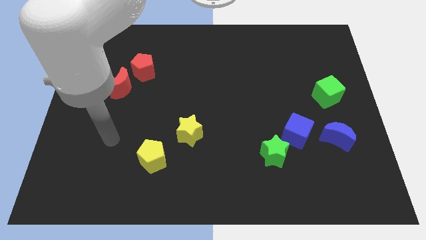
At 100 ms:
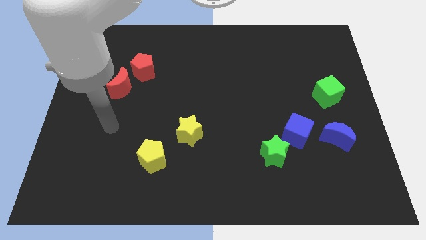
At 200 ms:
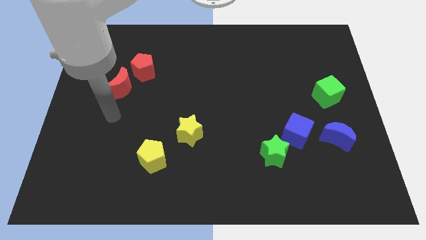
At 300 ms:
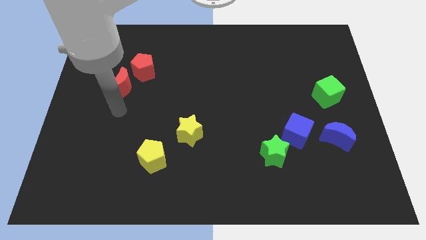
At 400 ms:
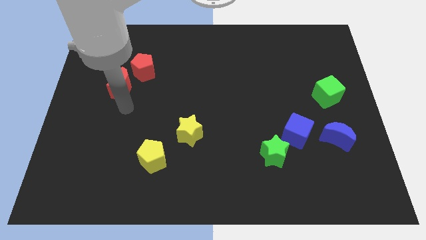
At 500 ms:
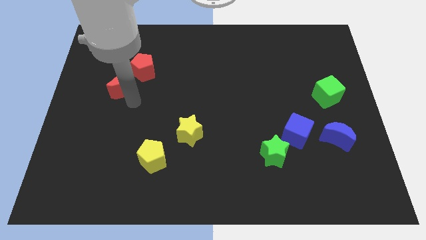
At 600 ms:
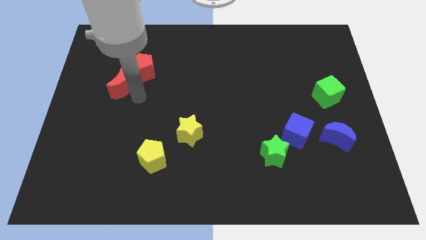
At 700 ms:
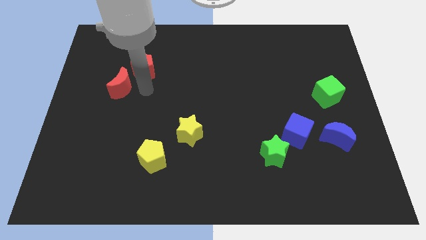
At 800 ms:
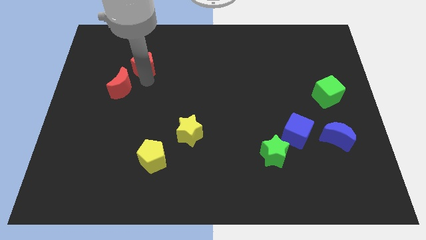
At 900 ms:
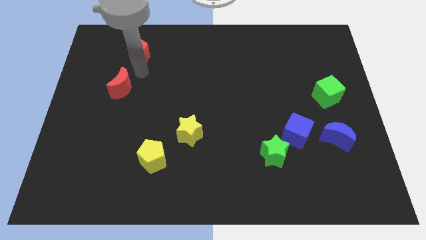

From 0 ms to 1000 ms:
move the red moon away from the red pentagon

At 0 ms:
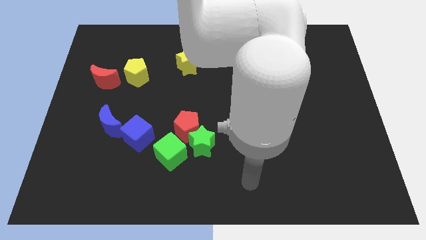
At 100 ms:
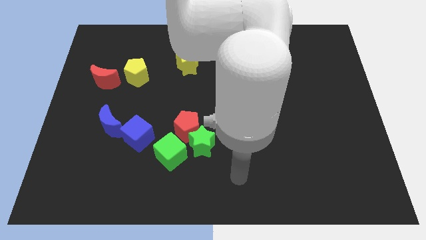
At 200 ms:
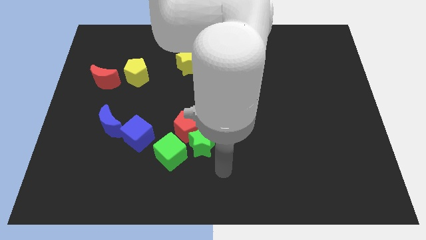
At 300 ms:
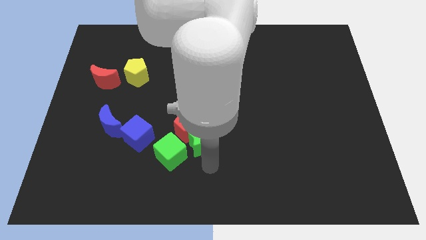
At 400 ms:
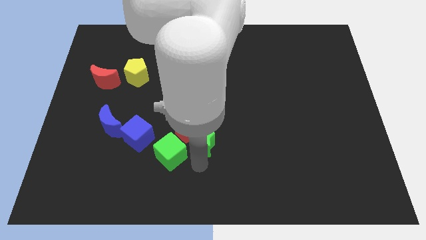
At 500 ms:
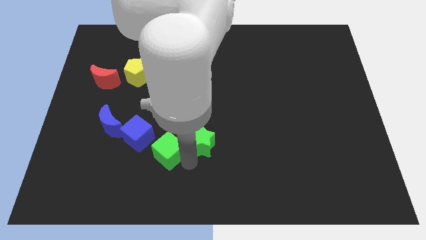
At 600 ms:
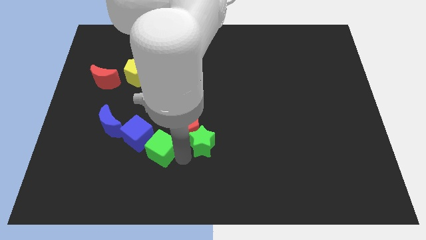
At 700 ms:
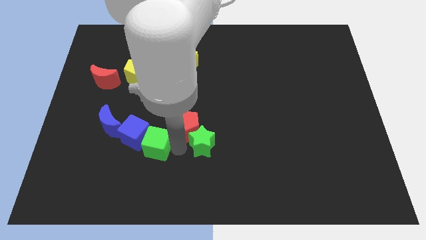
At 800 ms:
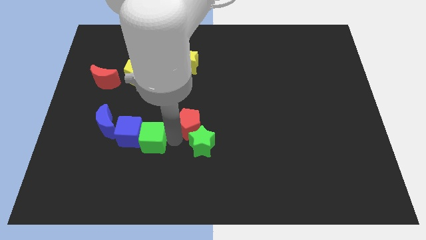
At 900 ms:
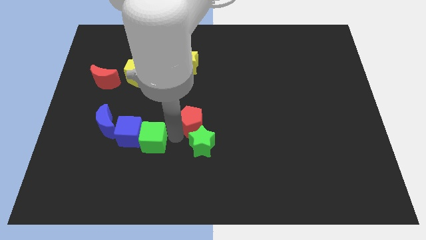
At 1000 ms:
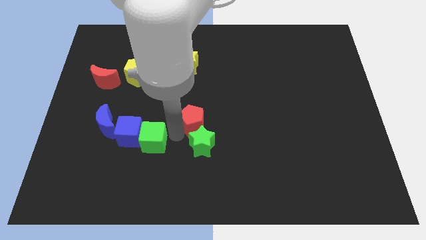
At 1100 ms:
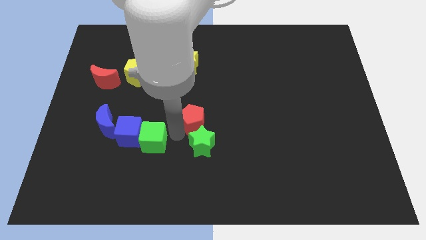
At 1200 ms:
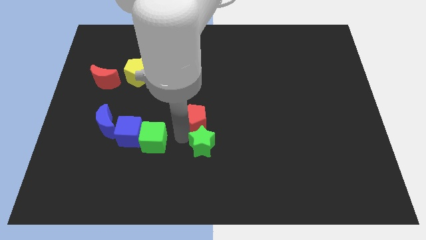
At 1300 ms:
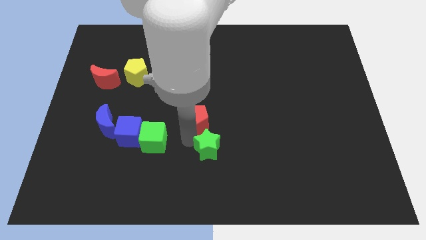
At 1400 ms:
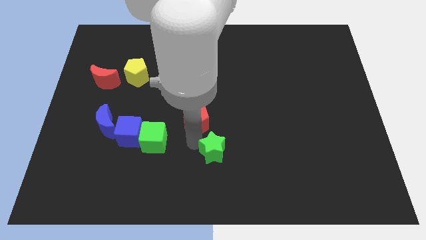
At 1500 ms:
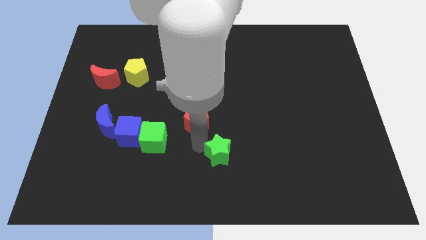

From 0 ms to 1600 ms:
separate the green star from the red pentagon and green cube

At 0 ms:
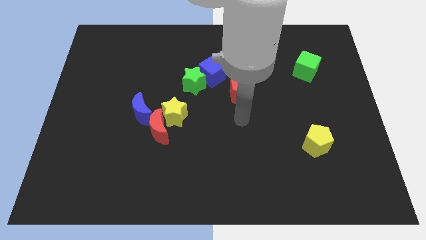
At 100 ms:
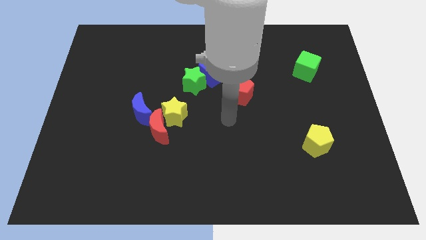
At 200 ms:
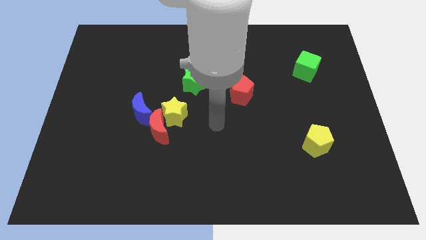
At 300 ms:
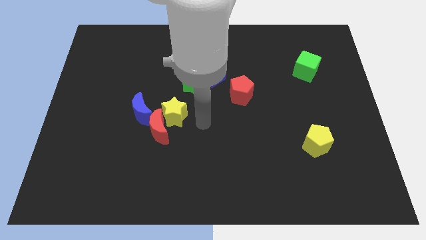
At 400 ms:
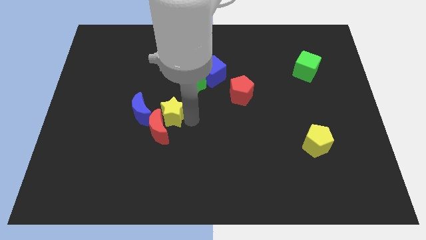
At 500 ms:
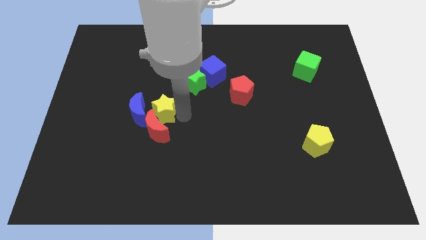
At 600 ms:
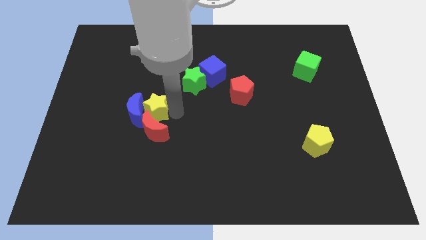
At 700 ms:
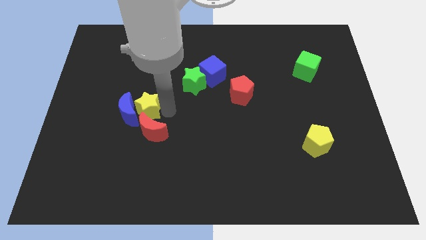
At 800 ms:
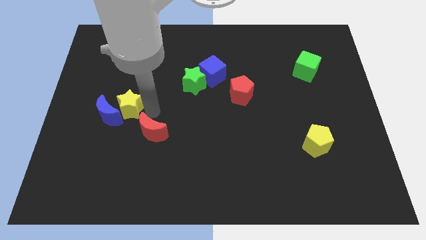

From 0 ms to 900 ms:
move the red moon away from the yellow star and blue moon

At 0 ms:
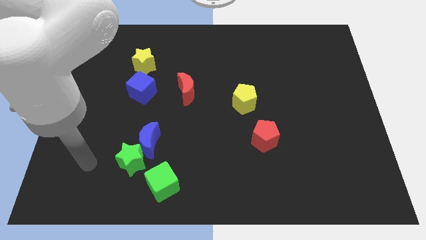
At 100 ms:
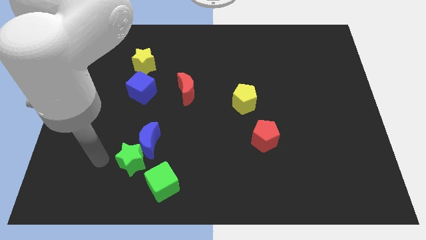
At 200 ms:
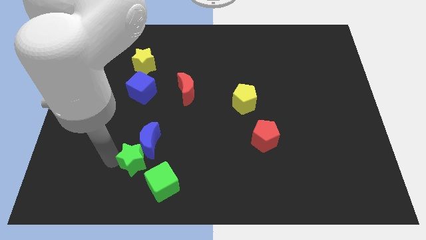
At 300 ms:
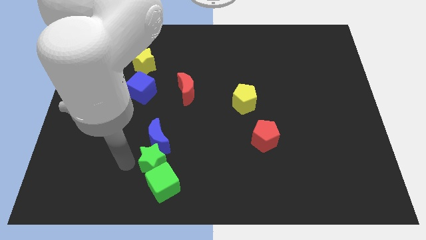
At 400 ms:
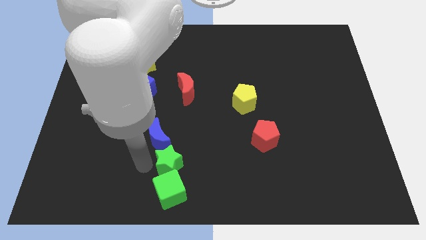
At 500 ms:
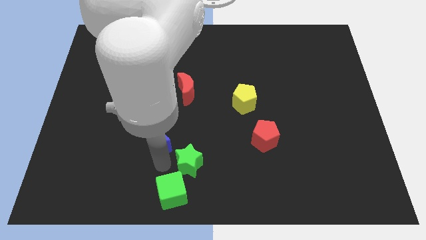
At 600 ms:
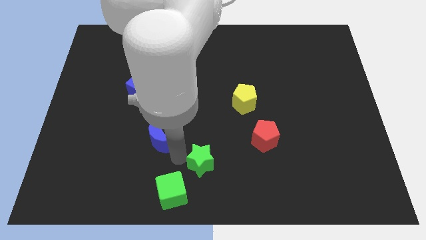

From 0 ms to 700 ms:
move the blue moon away from the green star

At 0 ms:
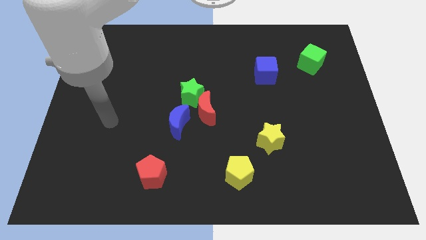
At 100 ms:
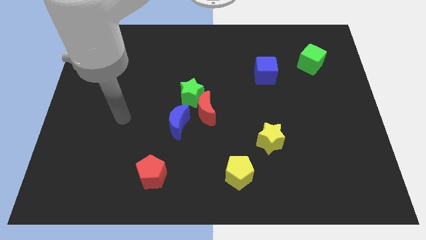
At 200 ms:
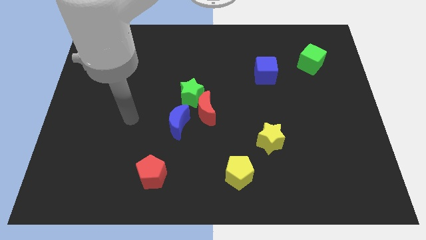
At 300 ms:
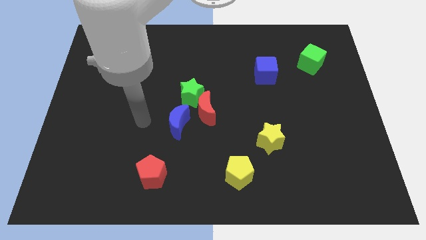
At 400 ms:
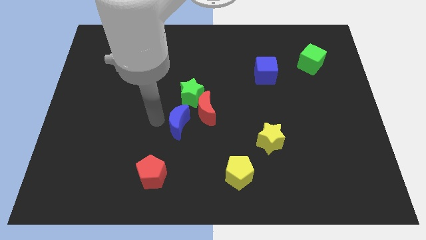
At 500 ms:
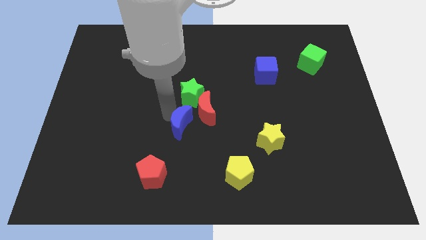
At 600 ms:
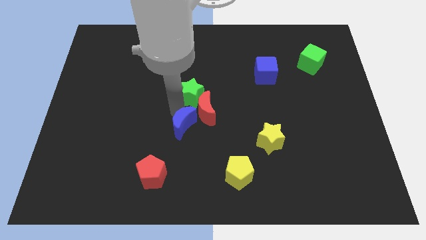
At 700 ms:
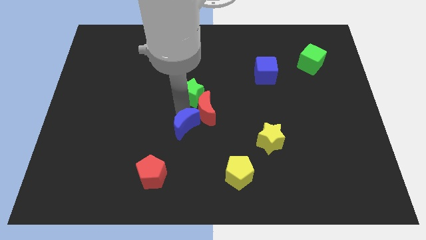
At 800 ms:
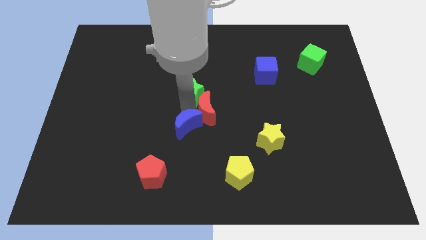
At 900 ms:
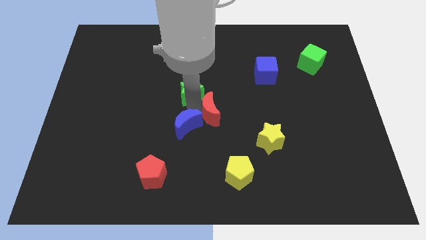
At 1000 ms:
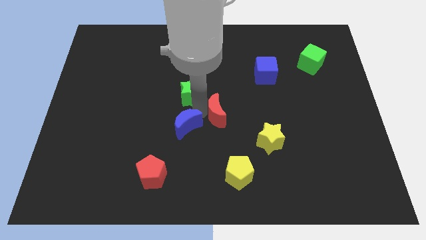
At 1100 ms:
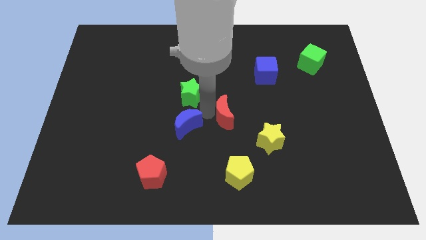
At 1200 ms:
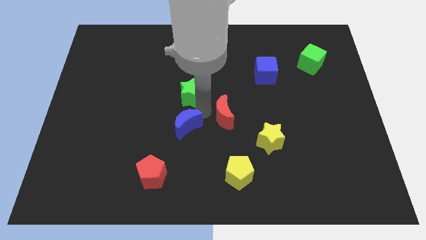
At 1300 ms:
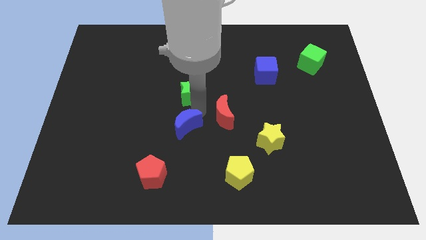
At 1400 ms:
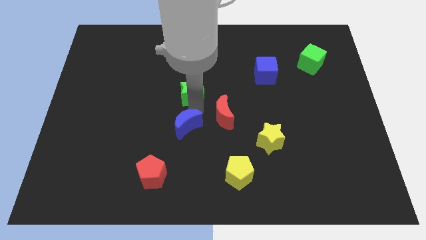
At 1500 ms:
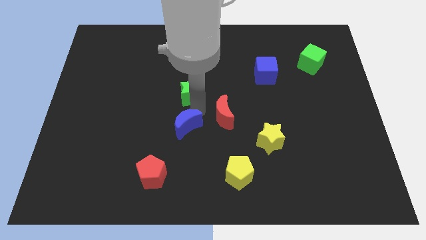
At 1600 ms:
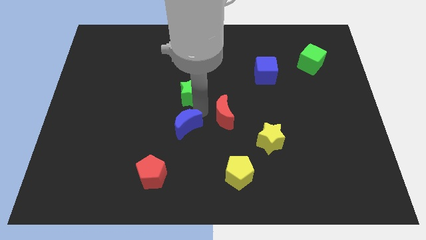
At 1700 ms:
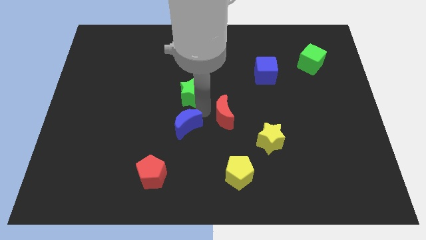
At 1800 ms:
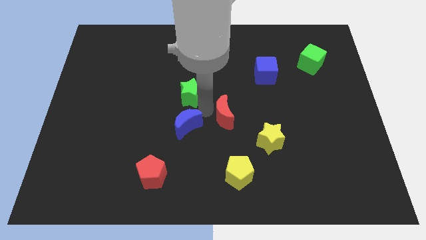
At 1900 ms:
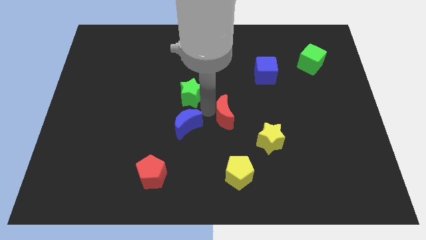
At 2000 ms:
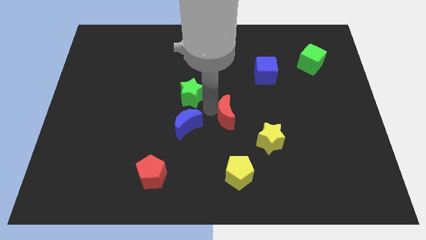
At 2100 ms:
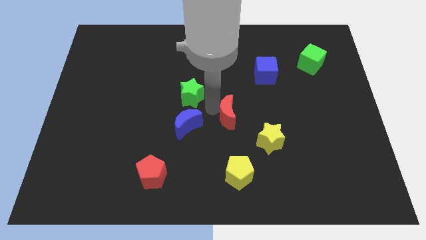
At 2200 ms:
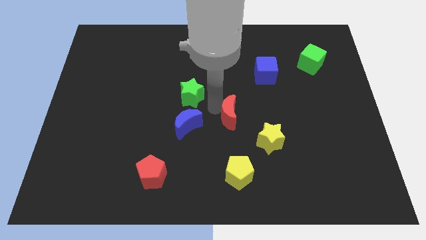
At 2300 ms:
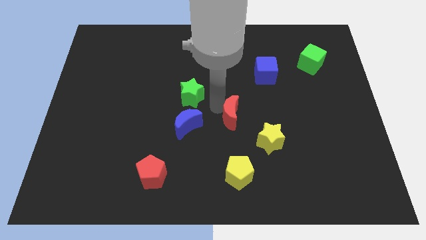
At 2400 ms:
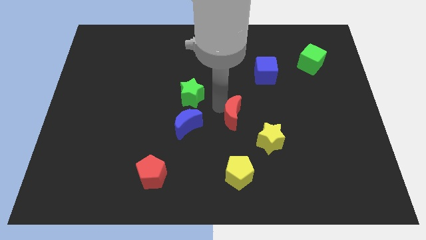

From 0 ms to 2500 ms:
pull the red moon apart from the green star and blue moon

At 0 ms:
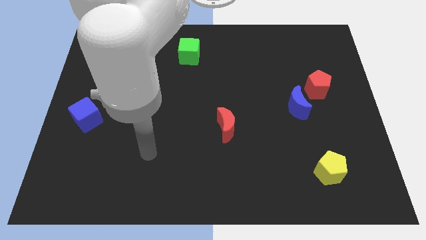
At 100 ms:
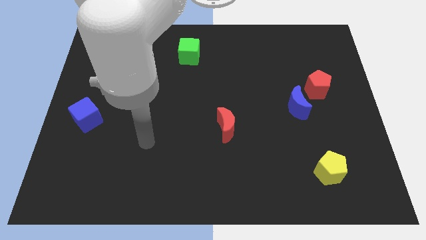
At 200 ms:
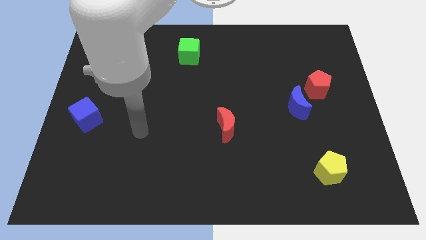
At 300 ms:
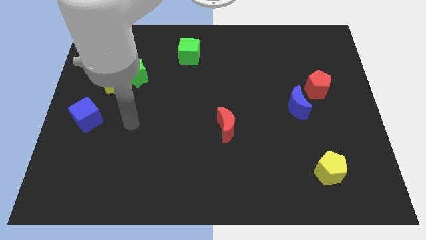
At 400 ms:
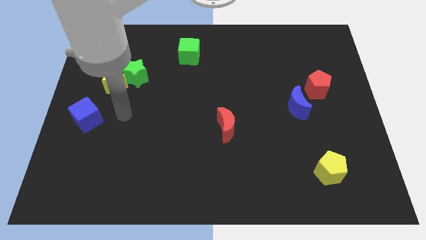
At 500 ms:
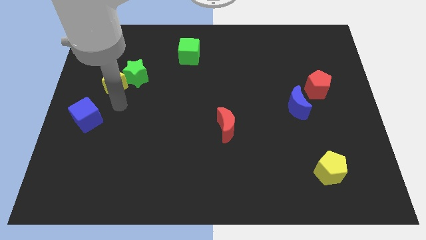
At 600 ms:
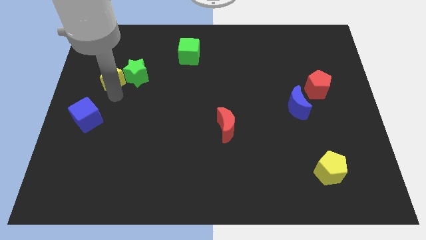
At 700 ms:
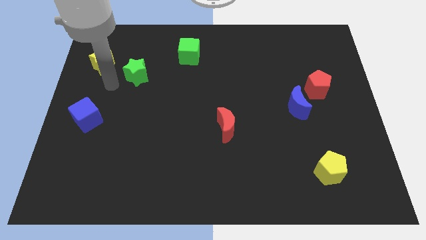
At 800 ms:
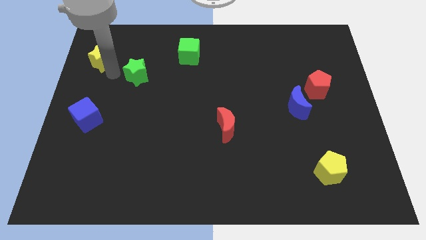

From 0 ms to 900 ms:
separate the green star from the yellow star

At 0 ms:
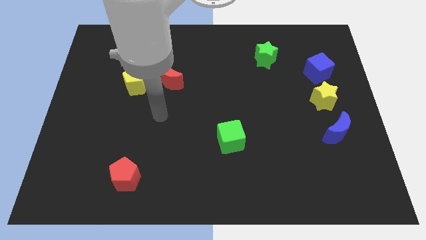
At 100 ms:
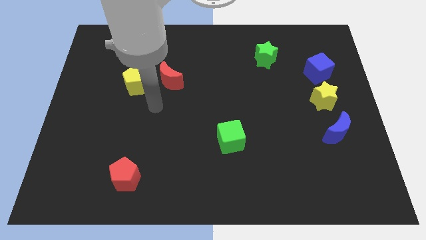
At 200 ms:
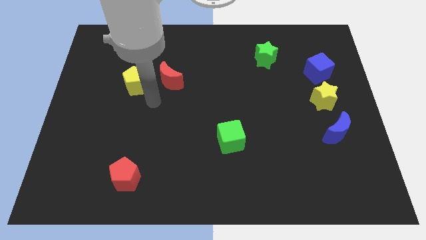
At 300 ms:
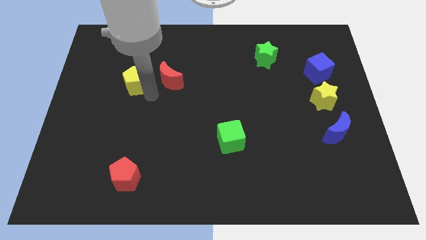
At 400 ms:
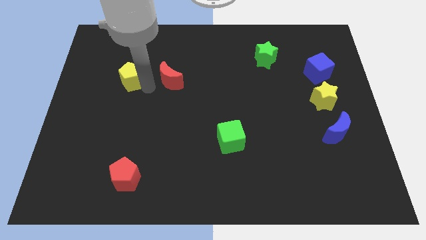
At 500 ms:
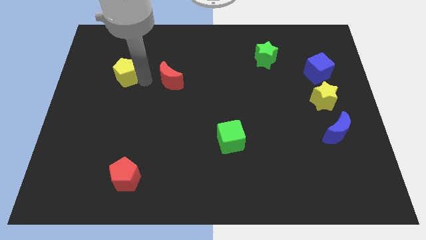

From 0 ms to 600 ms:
move the red moon away from the yellow pentagon

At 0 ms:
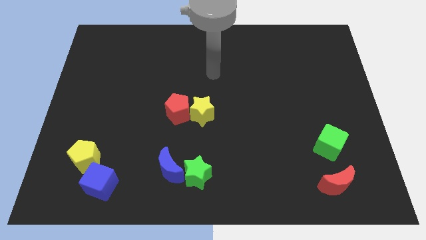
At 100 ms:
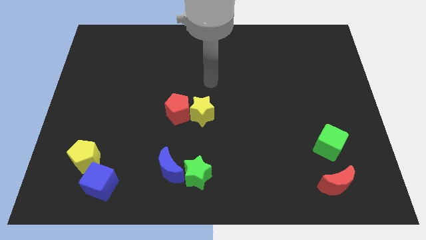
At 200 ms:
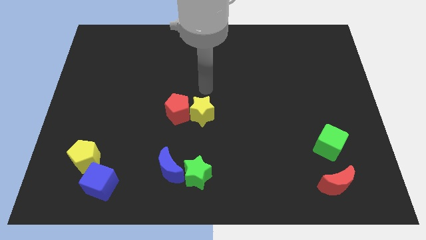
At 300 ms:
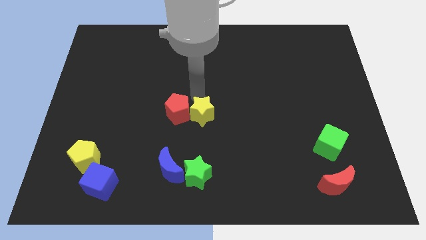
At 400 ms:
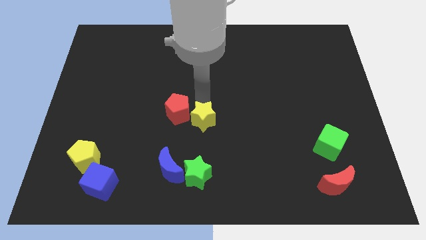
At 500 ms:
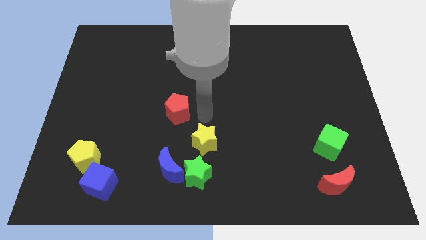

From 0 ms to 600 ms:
move the red pentagon away from the yellow star

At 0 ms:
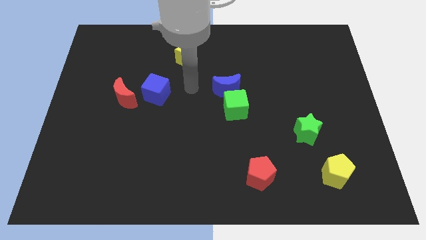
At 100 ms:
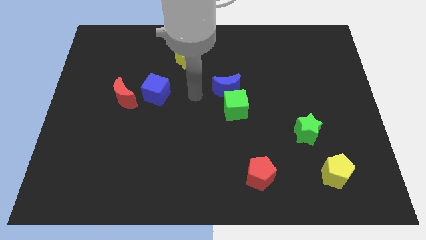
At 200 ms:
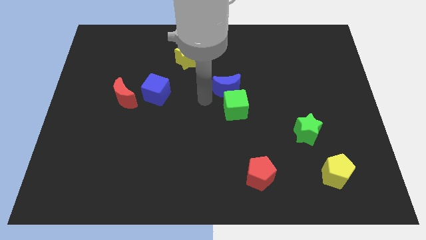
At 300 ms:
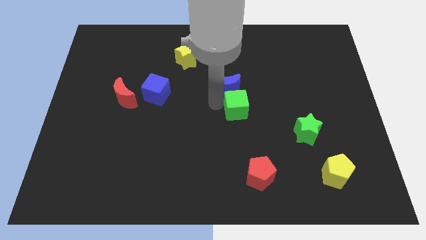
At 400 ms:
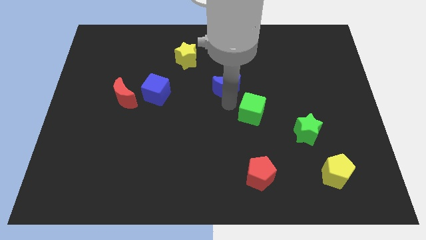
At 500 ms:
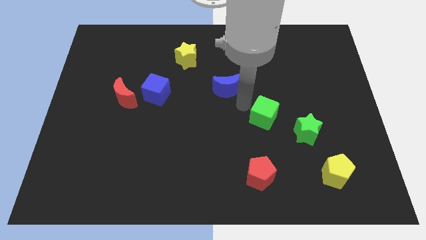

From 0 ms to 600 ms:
move the blue moon away from the green cube
